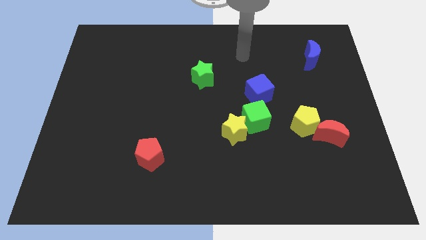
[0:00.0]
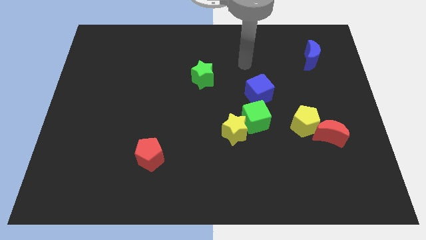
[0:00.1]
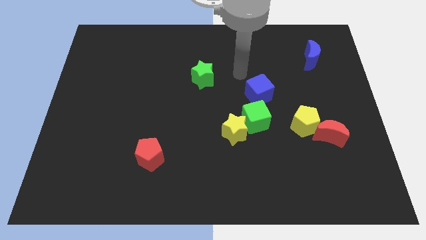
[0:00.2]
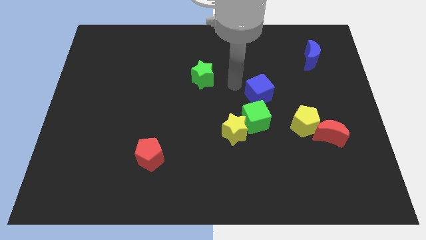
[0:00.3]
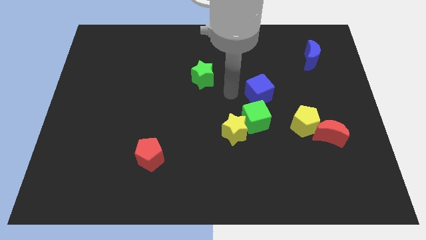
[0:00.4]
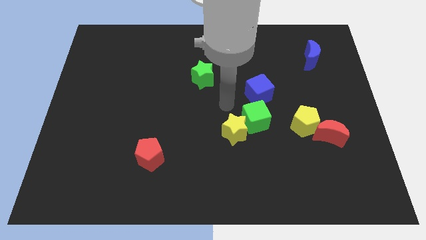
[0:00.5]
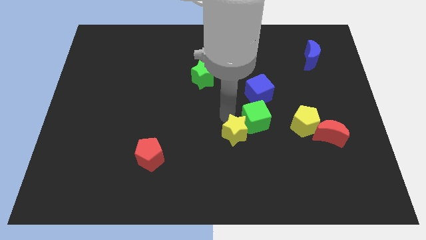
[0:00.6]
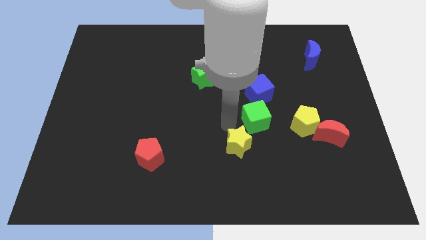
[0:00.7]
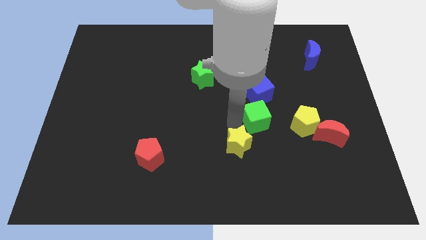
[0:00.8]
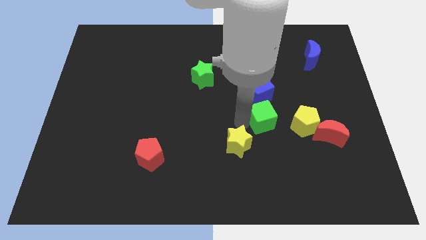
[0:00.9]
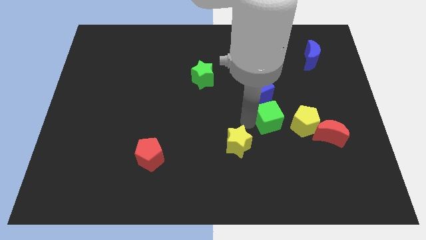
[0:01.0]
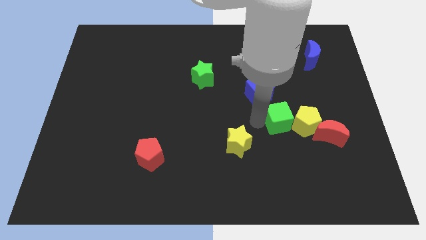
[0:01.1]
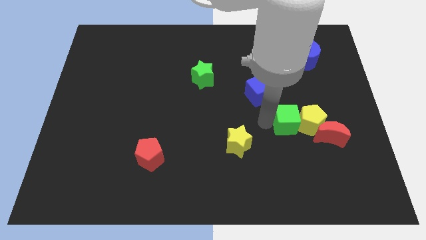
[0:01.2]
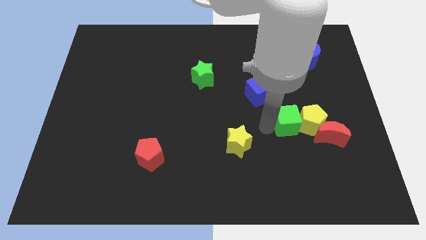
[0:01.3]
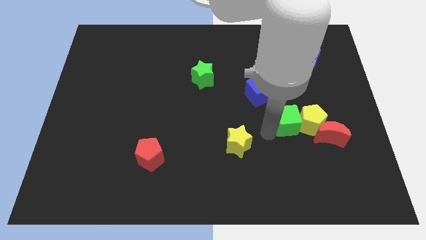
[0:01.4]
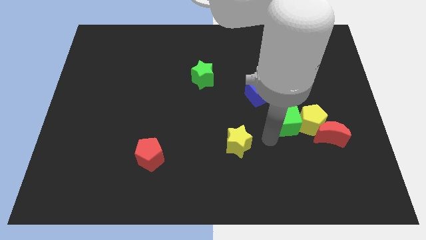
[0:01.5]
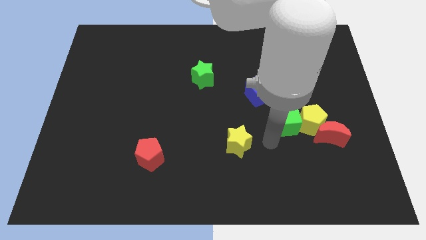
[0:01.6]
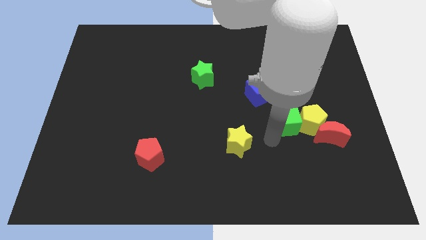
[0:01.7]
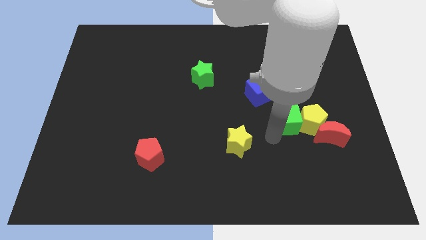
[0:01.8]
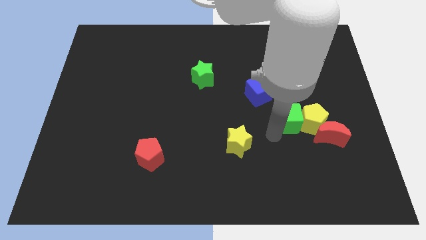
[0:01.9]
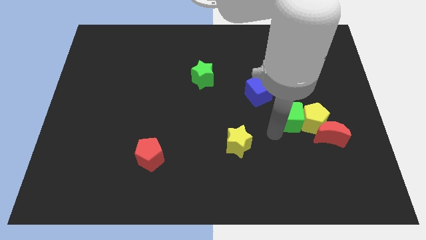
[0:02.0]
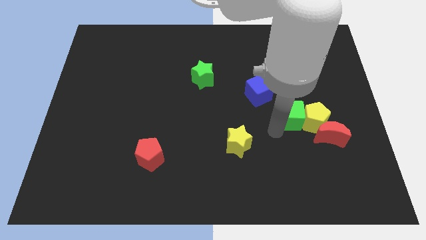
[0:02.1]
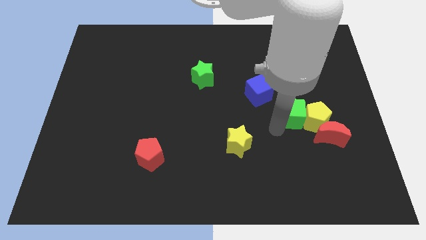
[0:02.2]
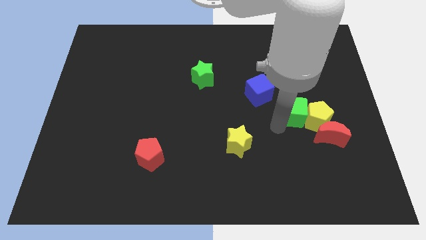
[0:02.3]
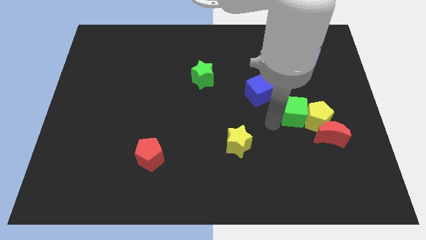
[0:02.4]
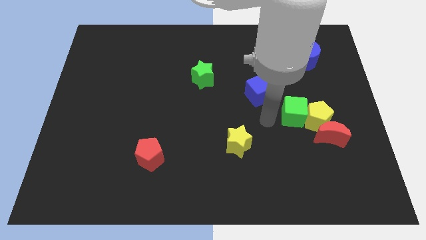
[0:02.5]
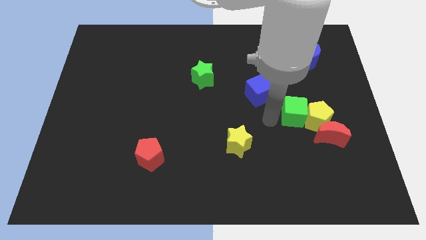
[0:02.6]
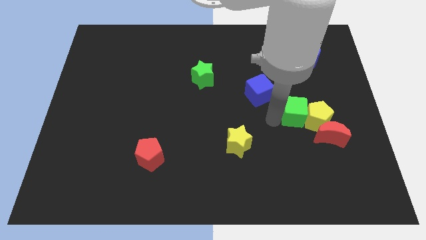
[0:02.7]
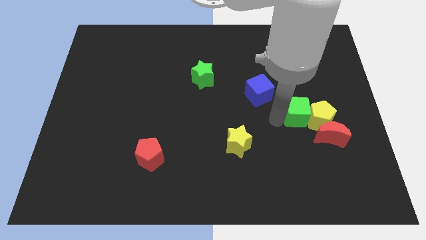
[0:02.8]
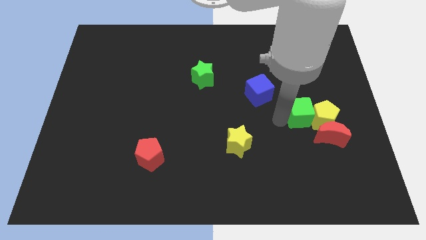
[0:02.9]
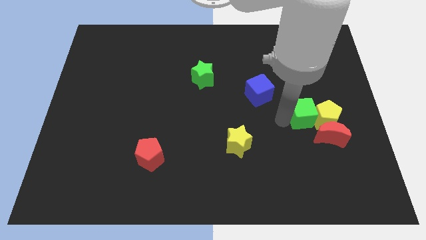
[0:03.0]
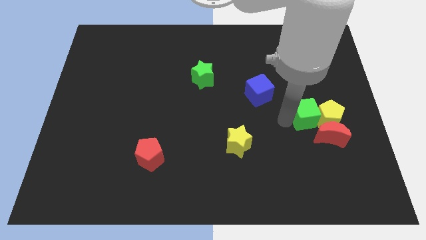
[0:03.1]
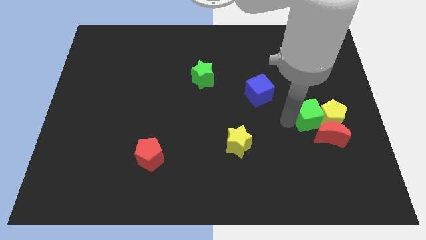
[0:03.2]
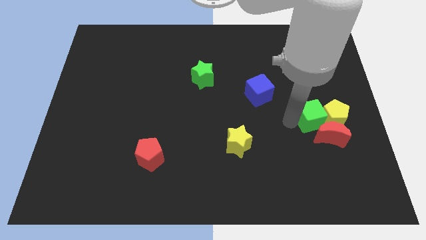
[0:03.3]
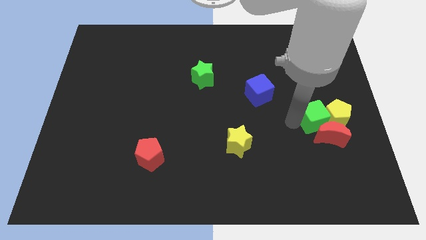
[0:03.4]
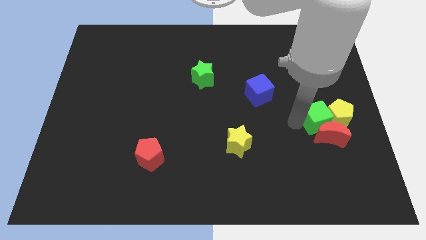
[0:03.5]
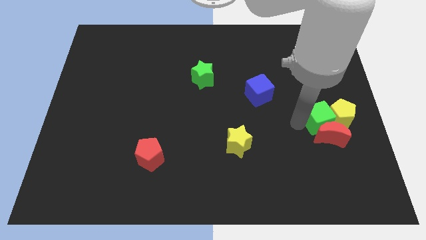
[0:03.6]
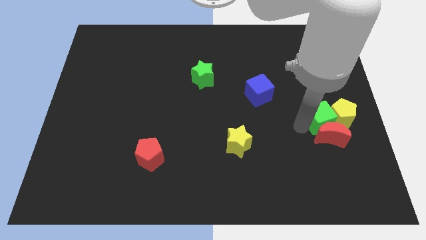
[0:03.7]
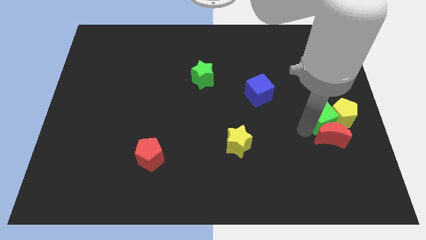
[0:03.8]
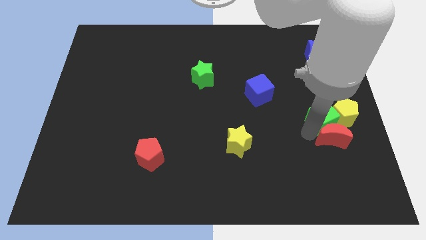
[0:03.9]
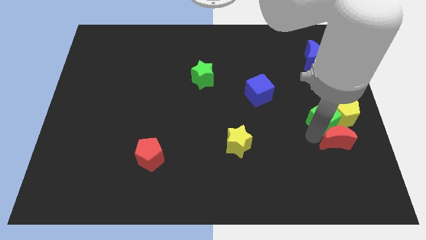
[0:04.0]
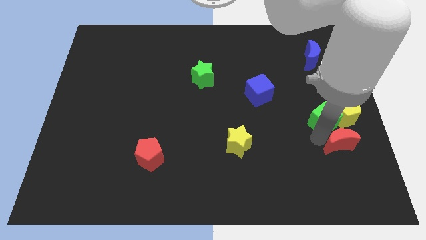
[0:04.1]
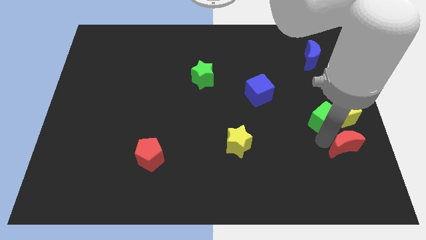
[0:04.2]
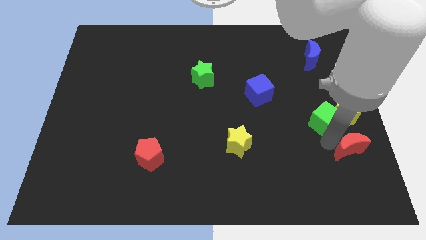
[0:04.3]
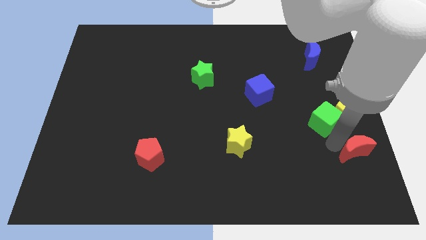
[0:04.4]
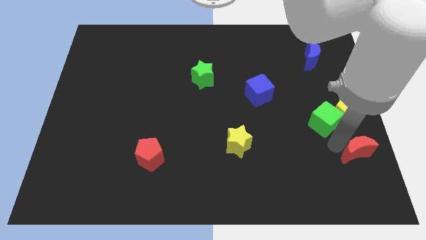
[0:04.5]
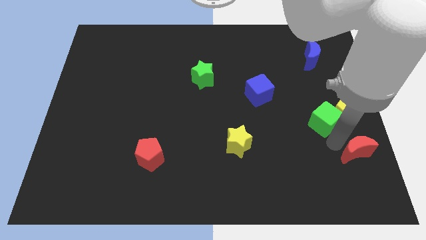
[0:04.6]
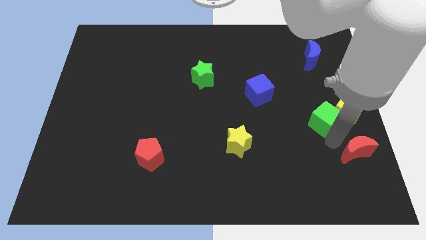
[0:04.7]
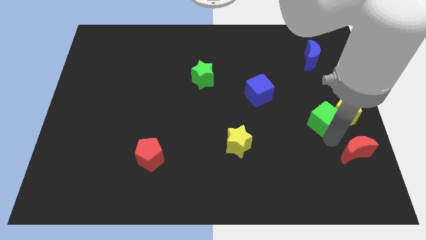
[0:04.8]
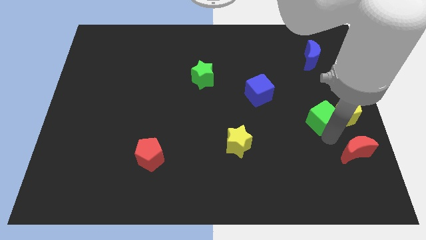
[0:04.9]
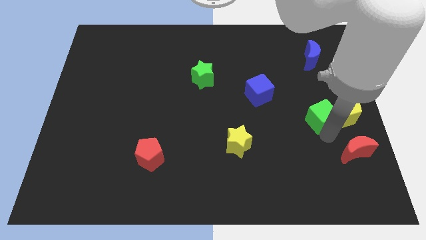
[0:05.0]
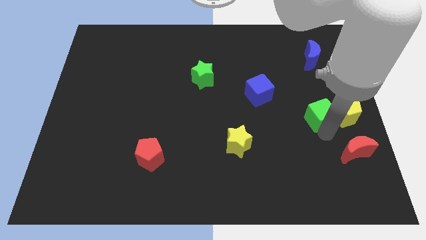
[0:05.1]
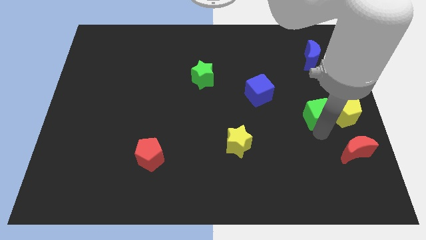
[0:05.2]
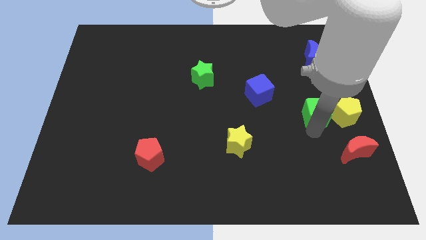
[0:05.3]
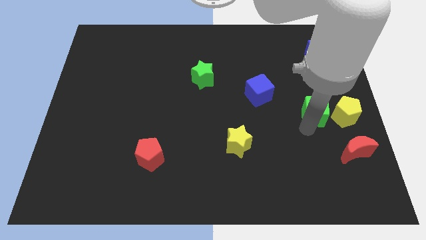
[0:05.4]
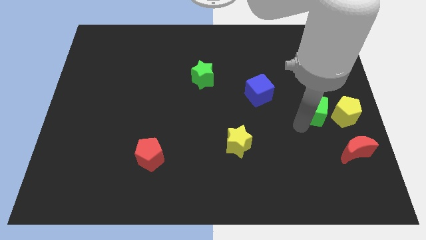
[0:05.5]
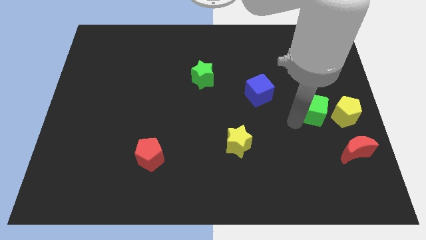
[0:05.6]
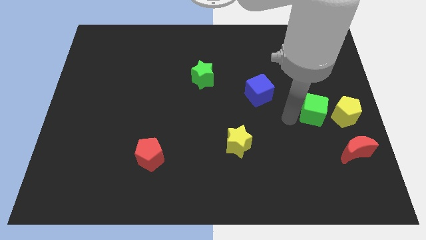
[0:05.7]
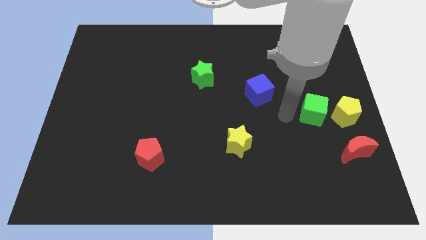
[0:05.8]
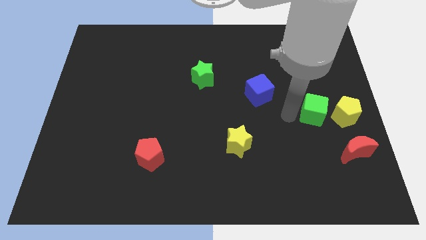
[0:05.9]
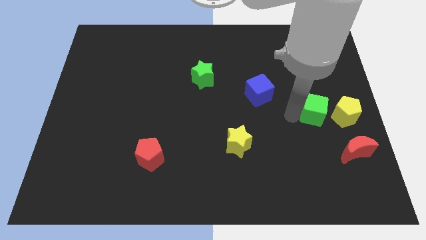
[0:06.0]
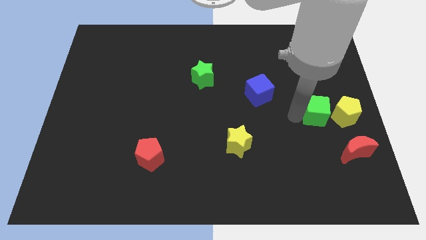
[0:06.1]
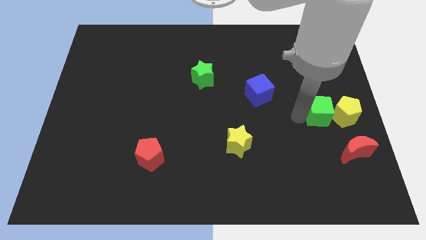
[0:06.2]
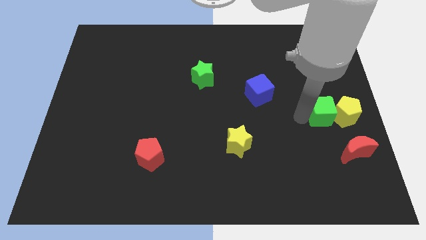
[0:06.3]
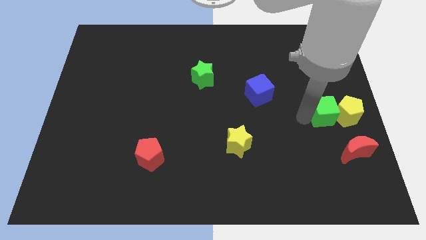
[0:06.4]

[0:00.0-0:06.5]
push the green cube to the right side
